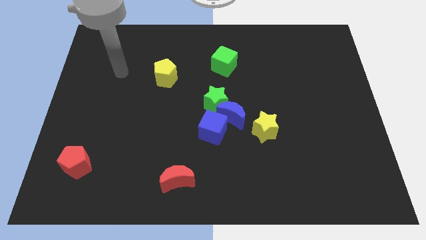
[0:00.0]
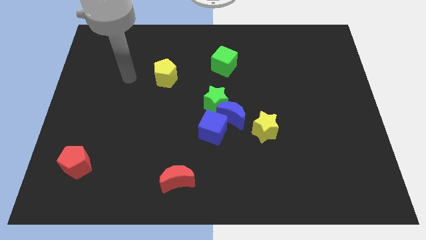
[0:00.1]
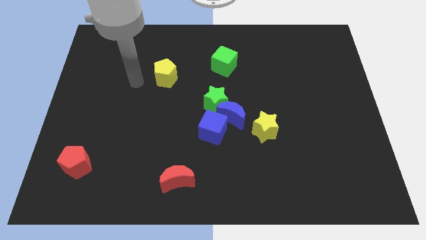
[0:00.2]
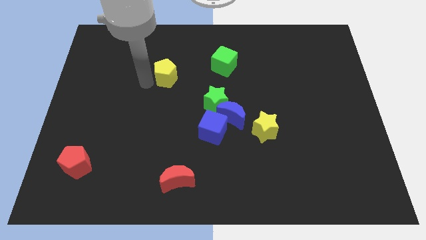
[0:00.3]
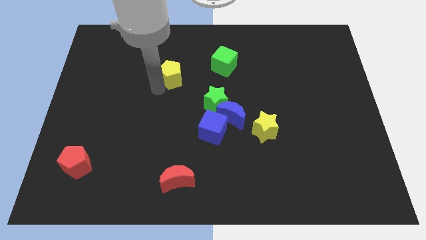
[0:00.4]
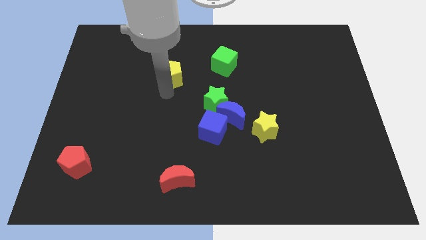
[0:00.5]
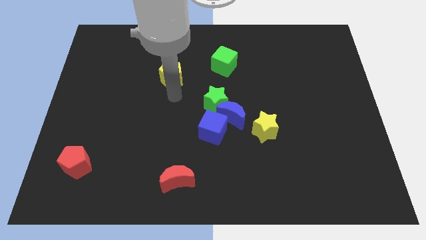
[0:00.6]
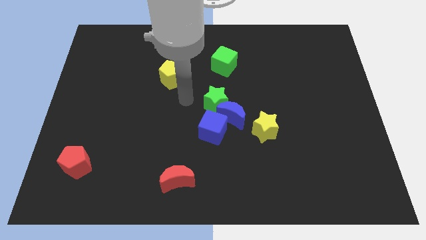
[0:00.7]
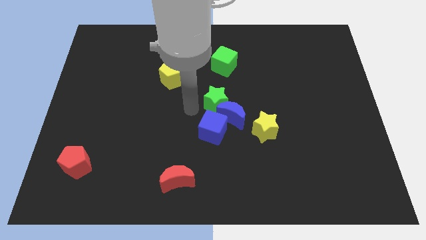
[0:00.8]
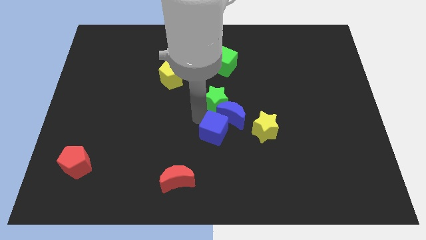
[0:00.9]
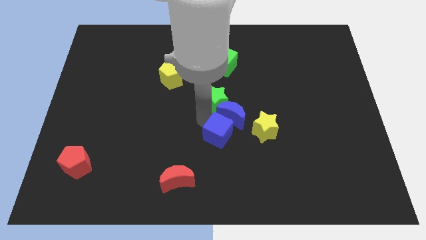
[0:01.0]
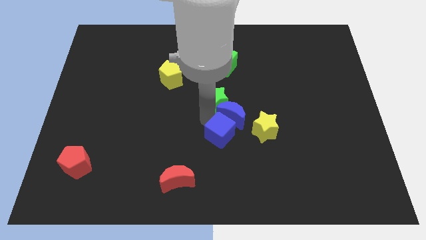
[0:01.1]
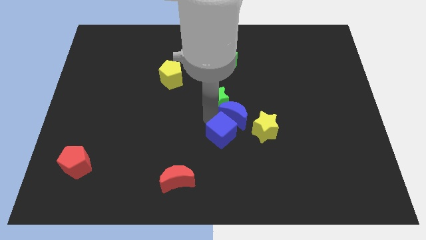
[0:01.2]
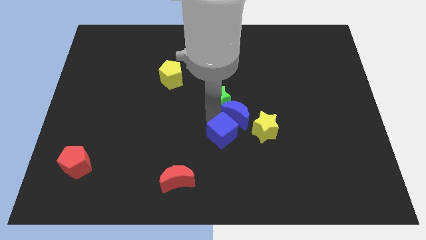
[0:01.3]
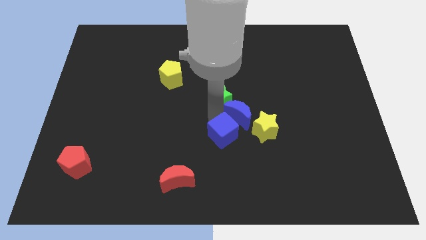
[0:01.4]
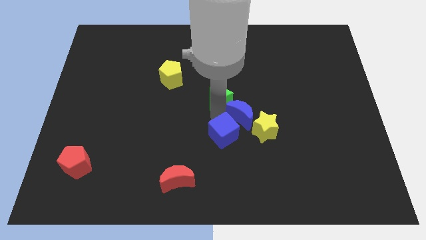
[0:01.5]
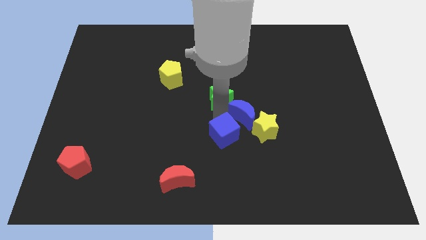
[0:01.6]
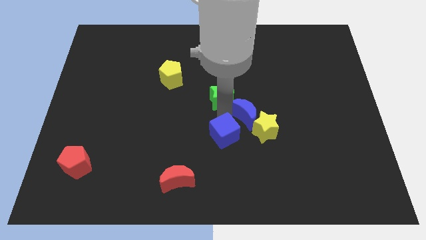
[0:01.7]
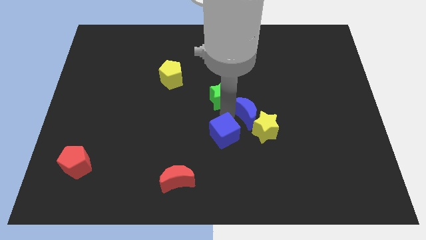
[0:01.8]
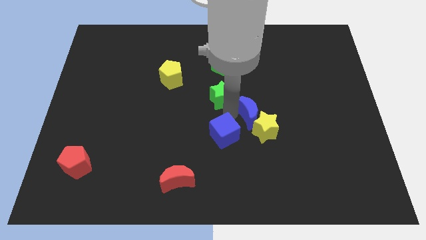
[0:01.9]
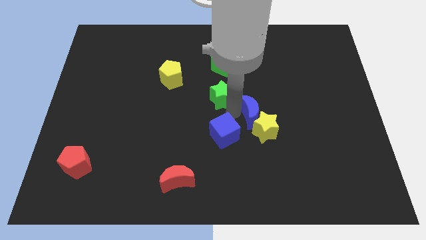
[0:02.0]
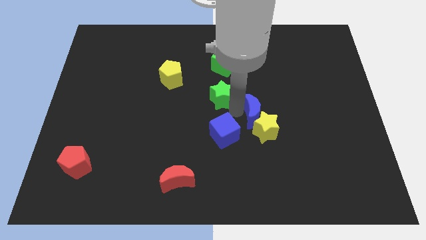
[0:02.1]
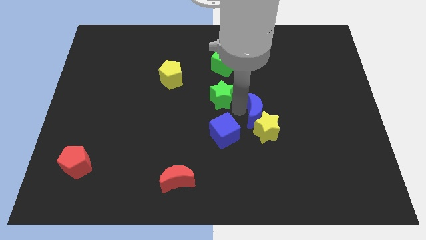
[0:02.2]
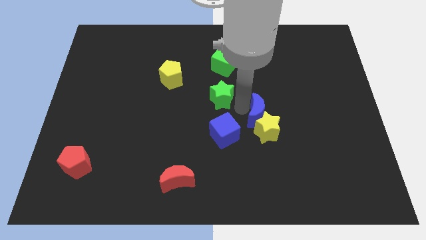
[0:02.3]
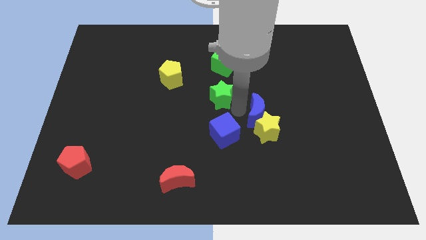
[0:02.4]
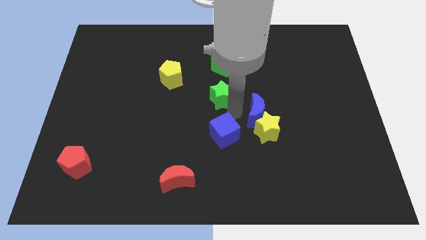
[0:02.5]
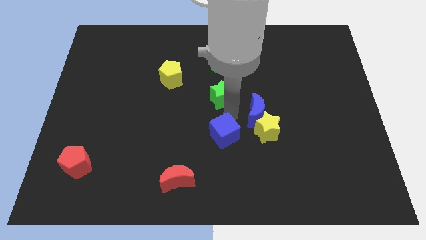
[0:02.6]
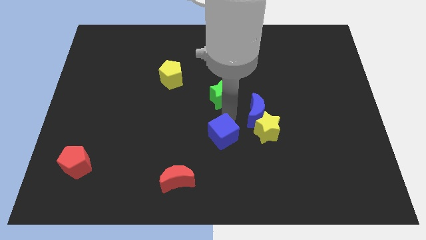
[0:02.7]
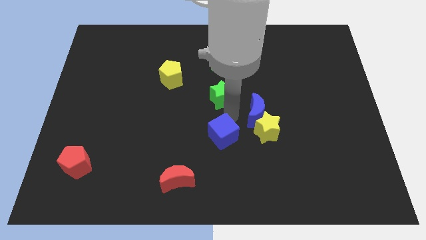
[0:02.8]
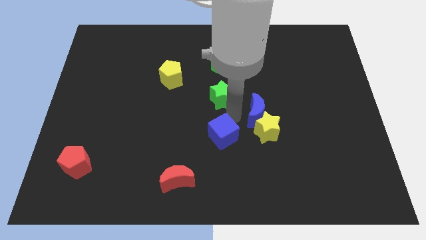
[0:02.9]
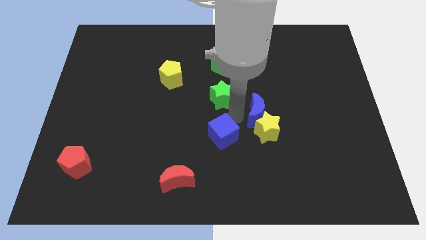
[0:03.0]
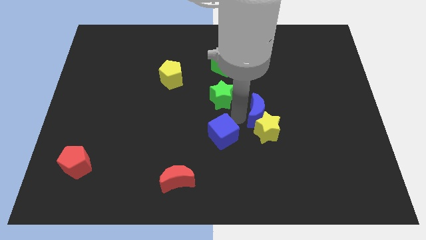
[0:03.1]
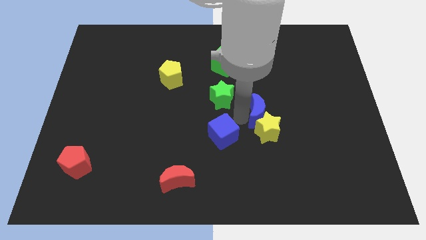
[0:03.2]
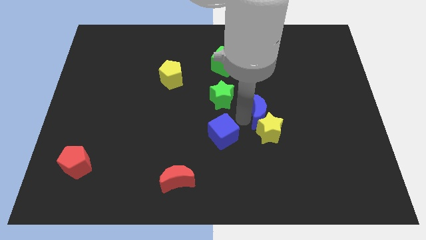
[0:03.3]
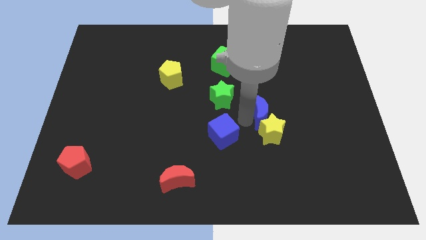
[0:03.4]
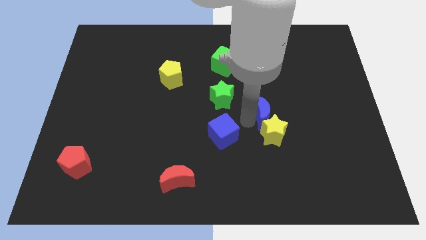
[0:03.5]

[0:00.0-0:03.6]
slide the blue moon somewhat to the right

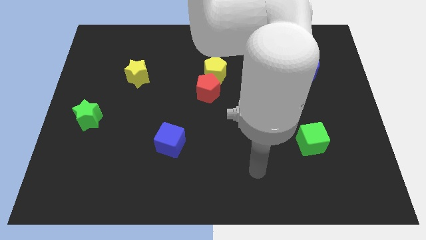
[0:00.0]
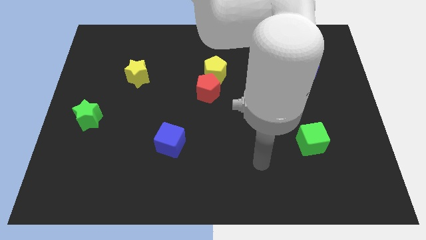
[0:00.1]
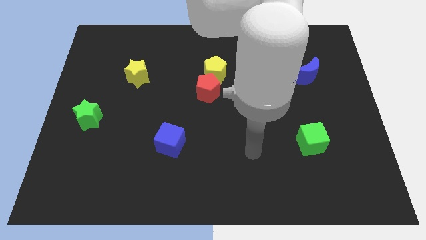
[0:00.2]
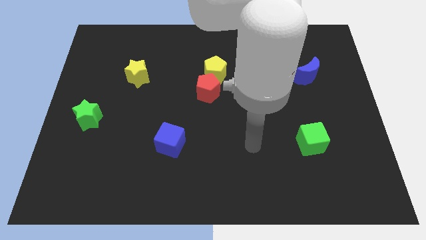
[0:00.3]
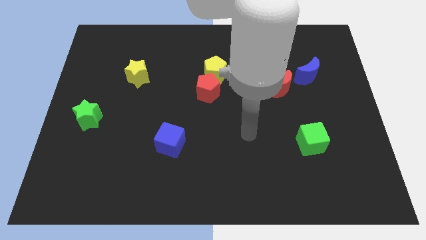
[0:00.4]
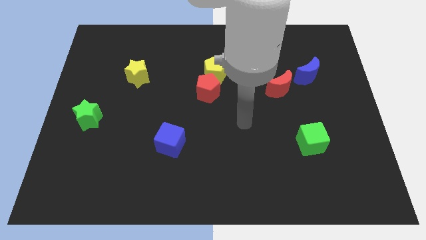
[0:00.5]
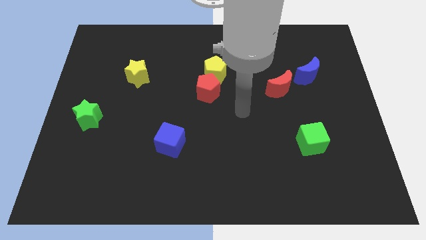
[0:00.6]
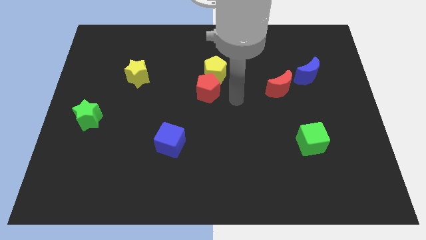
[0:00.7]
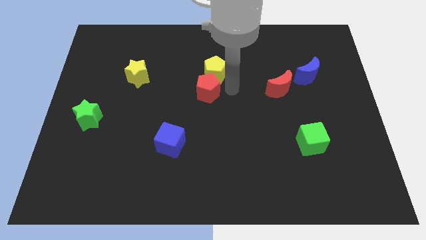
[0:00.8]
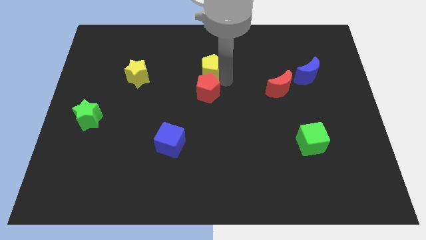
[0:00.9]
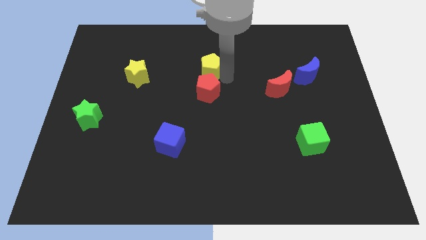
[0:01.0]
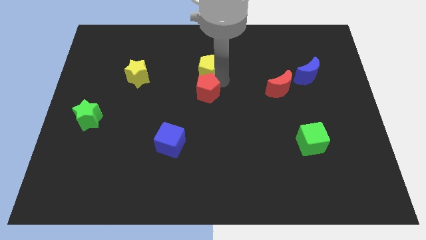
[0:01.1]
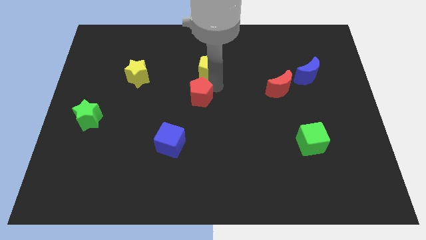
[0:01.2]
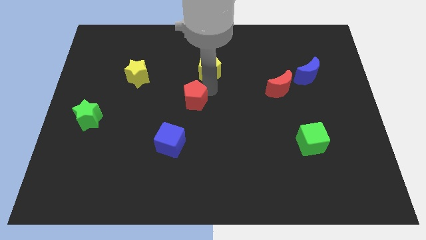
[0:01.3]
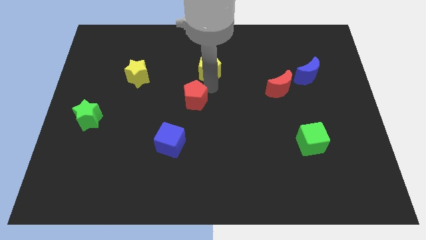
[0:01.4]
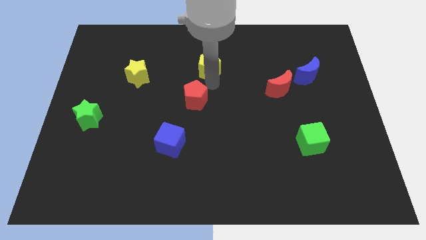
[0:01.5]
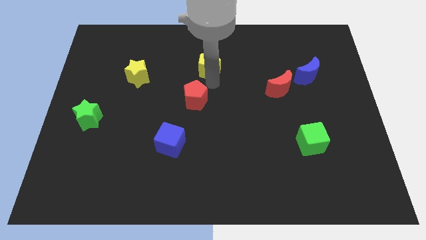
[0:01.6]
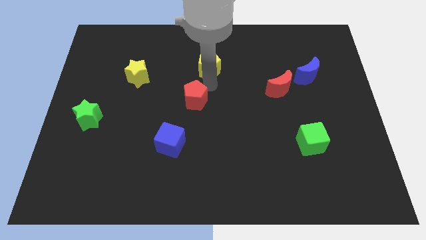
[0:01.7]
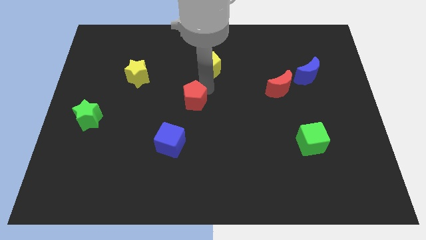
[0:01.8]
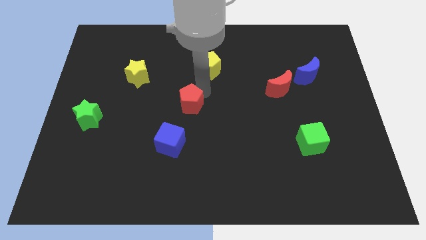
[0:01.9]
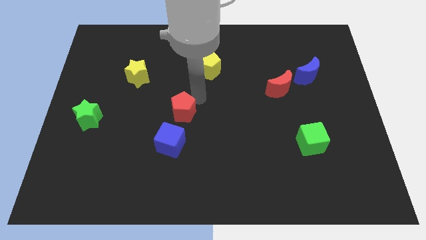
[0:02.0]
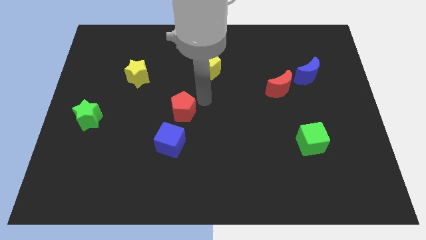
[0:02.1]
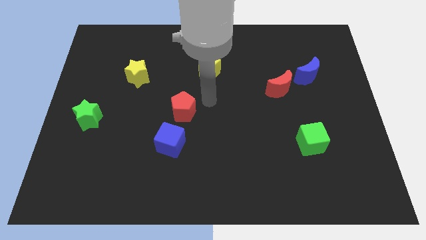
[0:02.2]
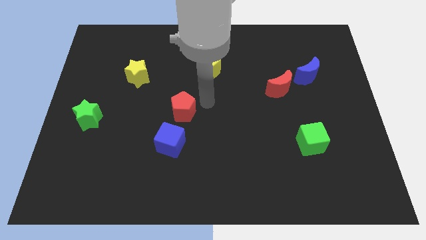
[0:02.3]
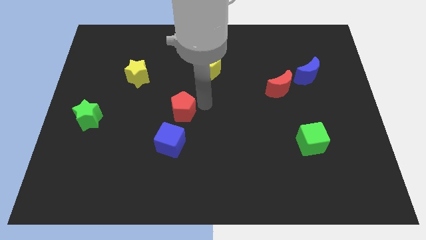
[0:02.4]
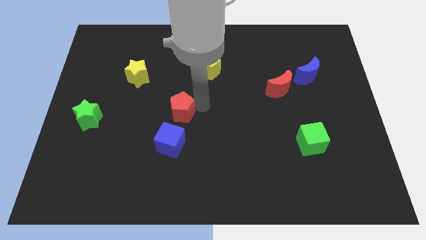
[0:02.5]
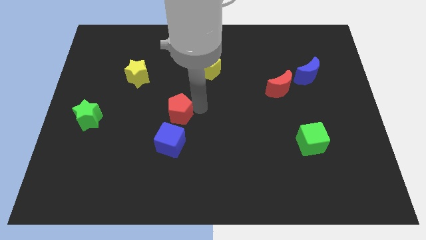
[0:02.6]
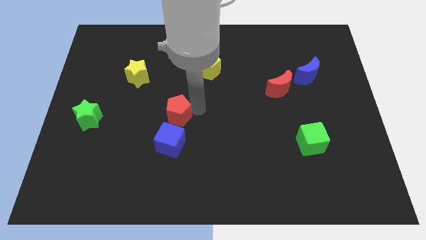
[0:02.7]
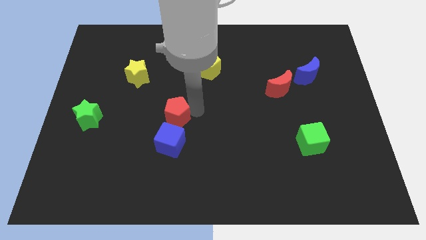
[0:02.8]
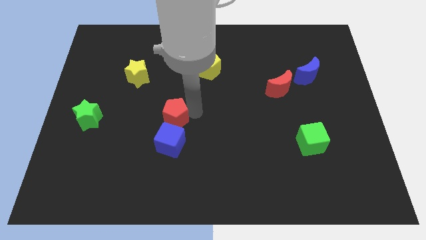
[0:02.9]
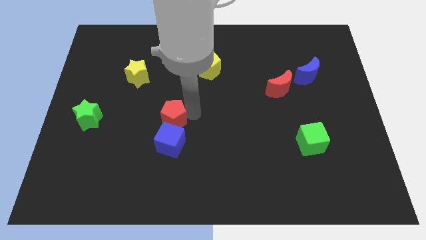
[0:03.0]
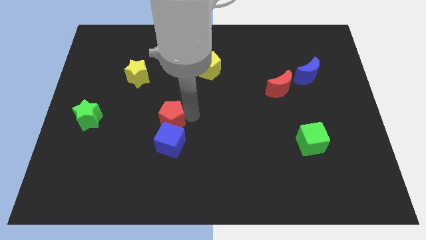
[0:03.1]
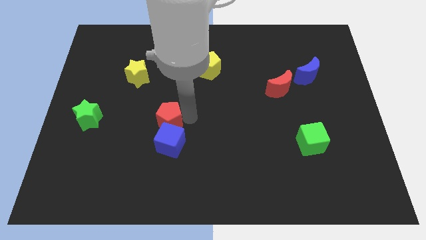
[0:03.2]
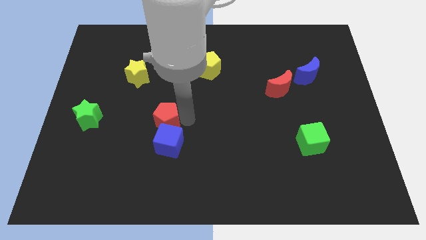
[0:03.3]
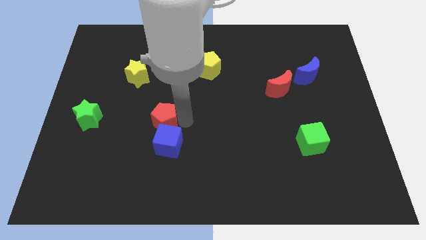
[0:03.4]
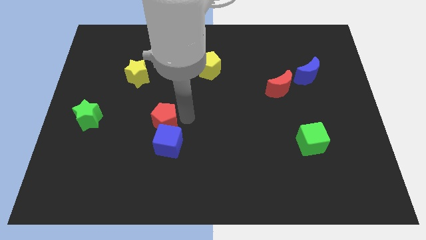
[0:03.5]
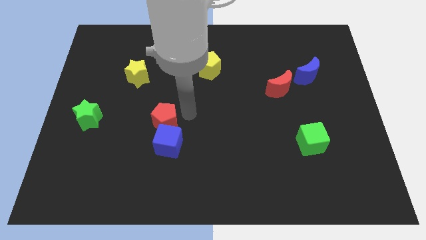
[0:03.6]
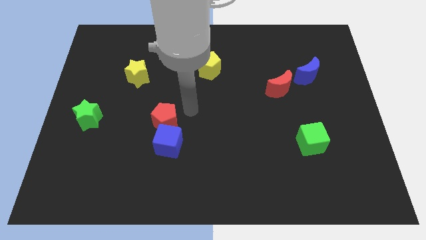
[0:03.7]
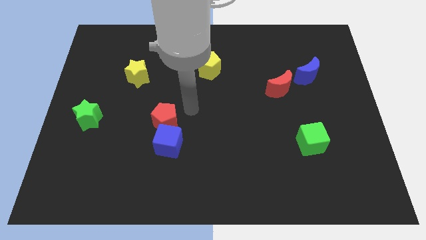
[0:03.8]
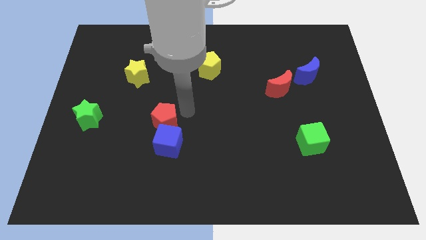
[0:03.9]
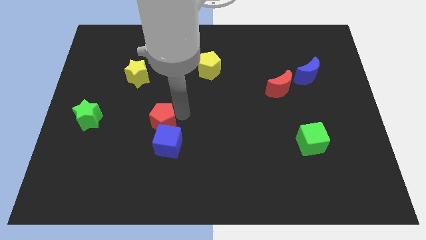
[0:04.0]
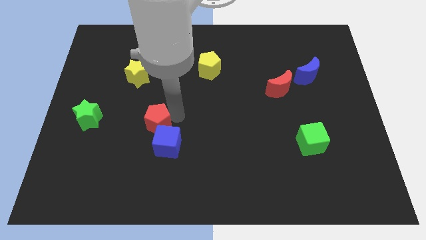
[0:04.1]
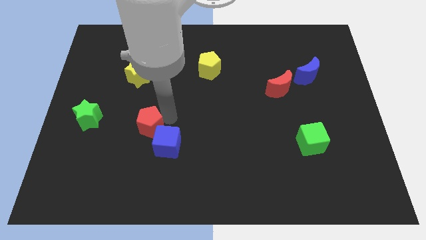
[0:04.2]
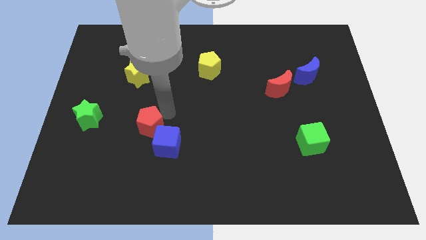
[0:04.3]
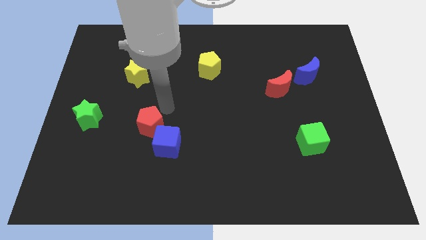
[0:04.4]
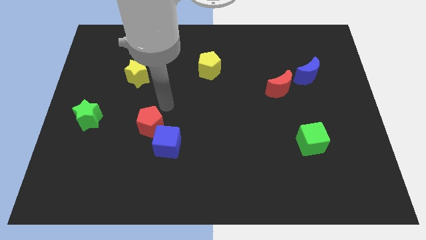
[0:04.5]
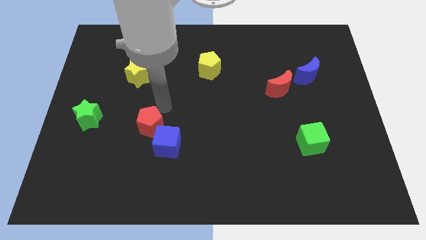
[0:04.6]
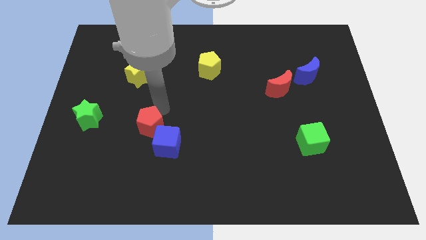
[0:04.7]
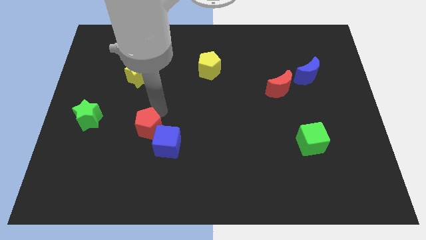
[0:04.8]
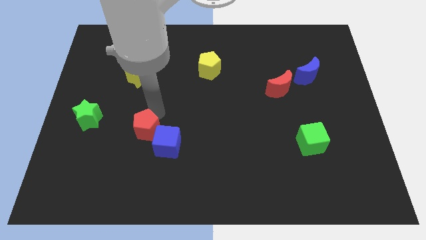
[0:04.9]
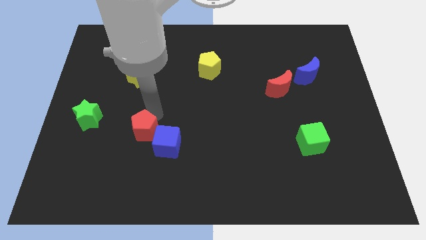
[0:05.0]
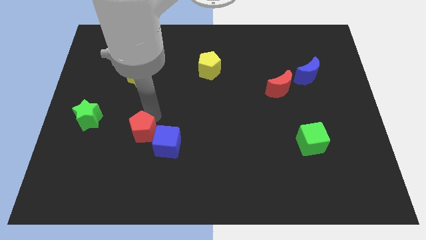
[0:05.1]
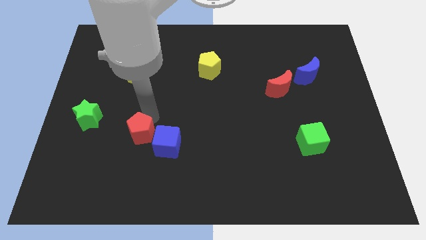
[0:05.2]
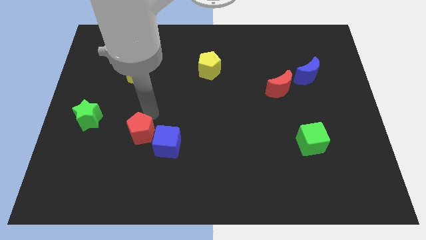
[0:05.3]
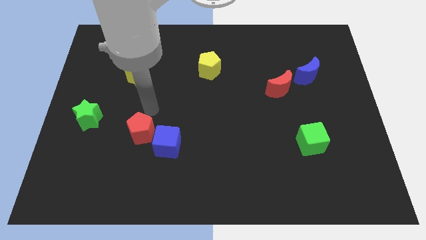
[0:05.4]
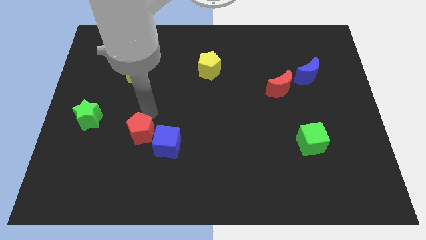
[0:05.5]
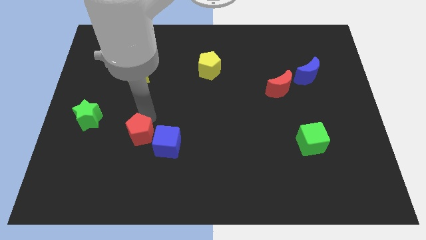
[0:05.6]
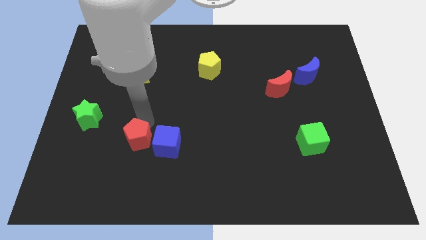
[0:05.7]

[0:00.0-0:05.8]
slide the red pentagon down and then left
